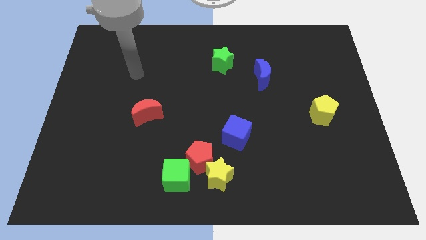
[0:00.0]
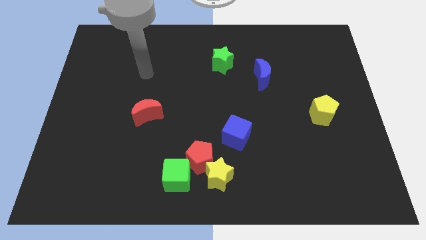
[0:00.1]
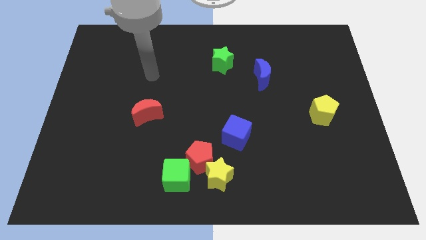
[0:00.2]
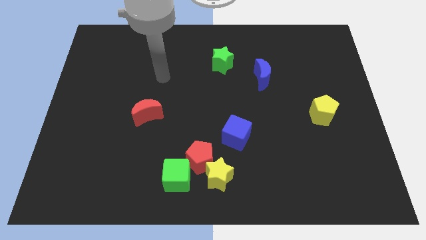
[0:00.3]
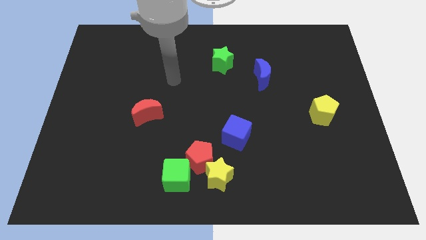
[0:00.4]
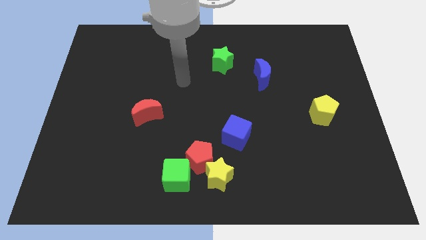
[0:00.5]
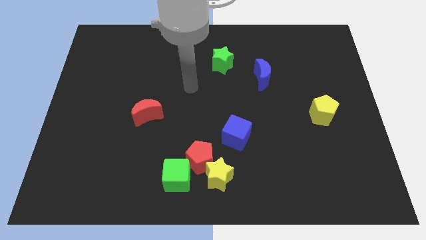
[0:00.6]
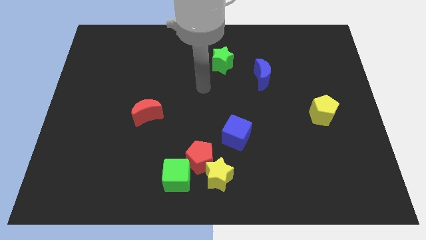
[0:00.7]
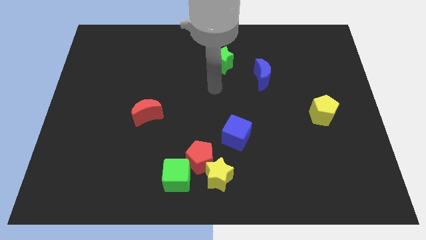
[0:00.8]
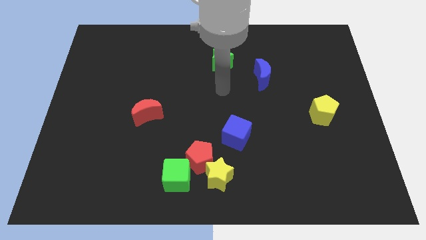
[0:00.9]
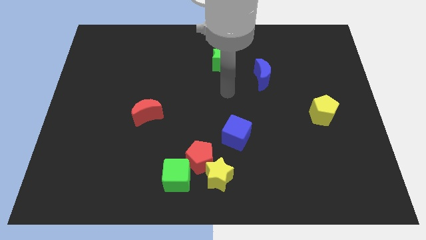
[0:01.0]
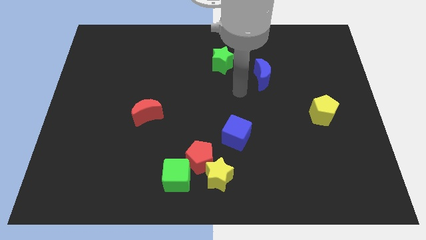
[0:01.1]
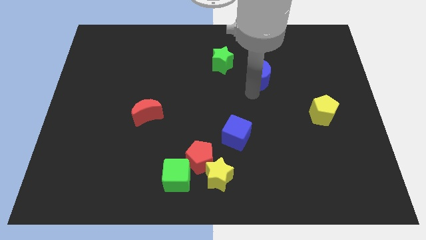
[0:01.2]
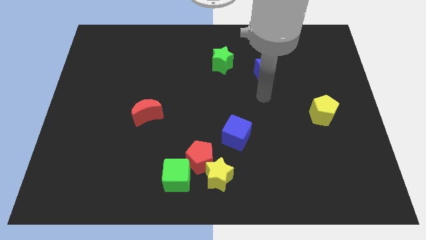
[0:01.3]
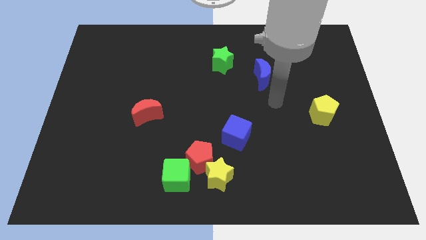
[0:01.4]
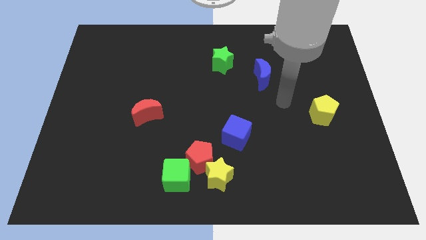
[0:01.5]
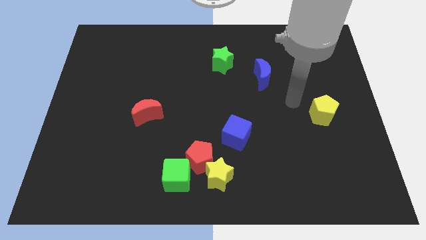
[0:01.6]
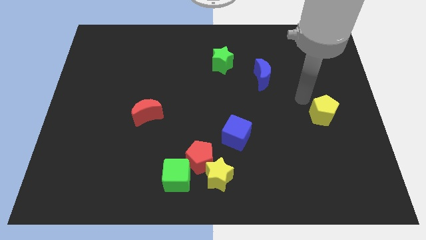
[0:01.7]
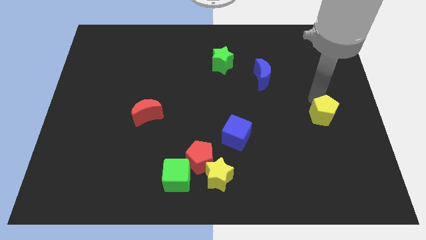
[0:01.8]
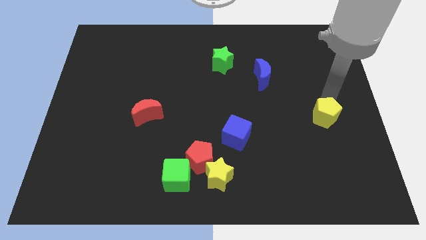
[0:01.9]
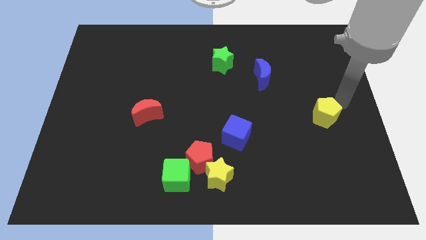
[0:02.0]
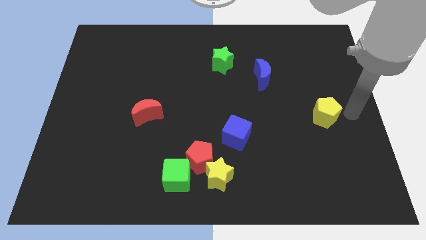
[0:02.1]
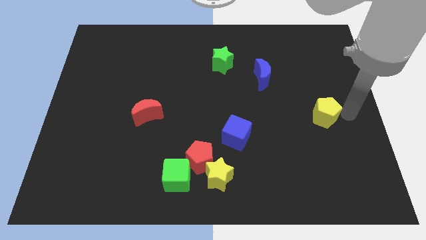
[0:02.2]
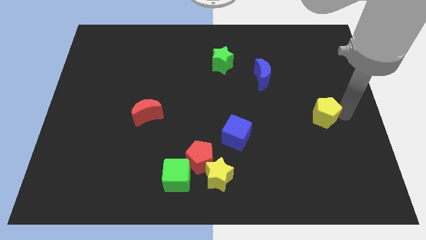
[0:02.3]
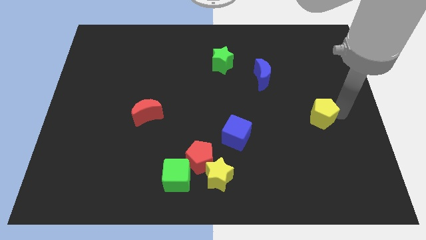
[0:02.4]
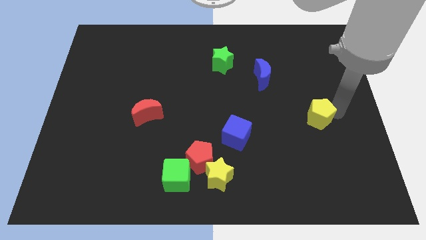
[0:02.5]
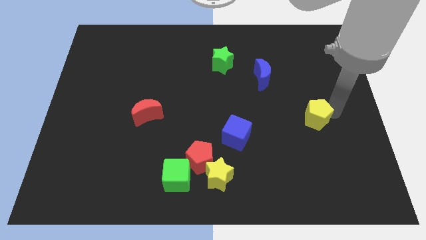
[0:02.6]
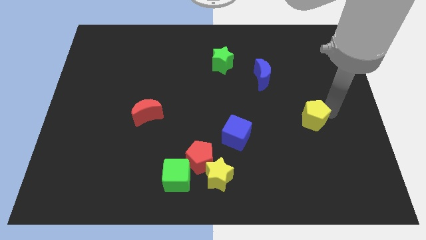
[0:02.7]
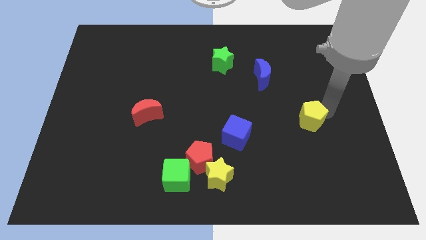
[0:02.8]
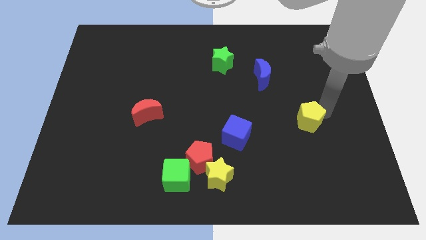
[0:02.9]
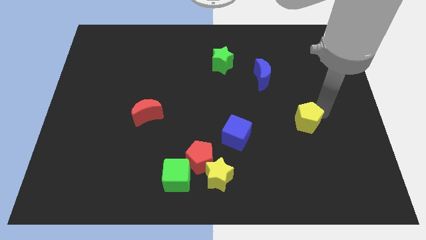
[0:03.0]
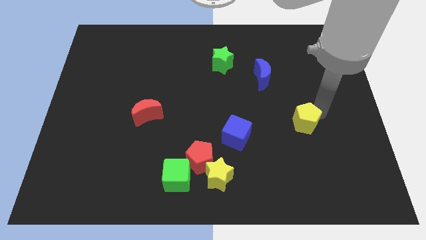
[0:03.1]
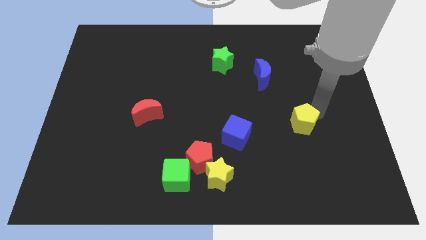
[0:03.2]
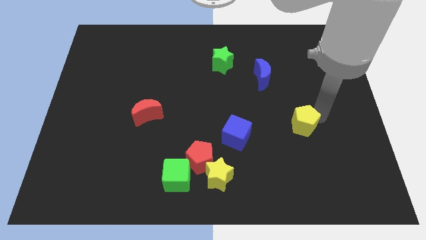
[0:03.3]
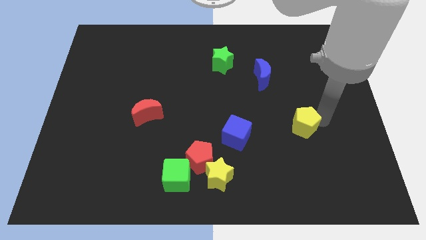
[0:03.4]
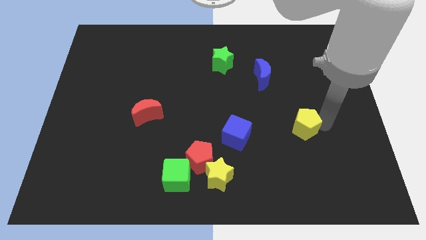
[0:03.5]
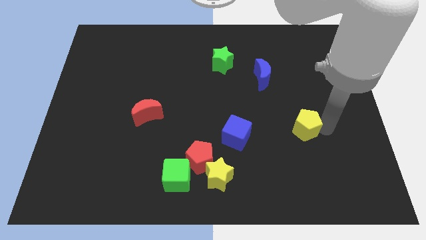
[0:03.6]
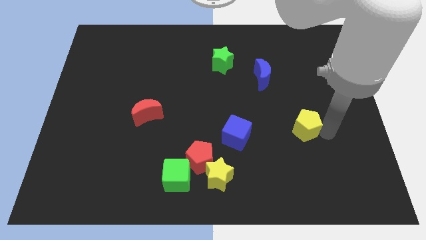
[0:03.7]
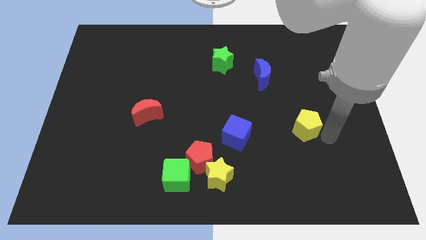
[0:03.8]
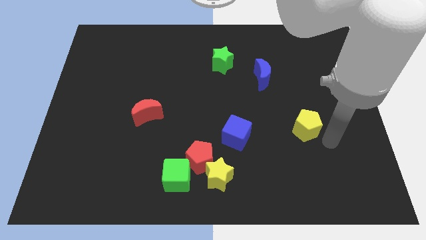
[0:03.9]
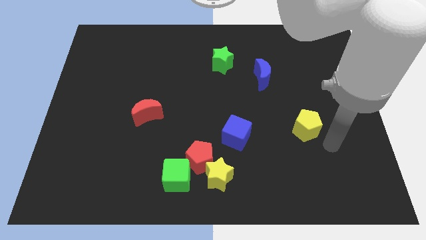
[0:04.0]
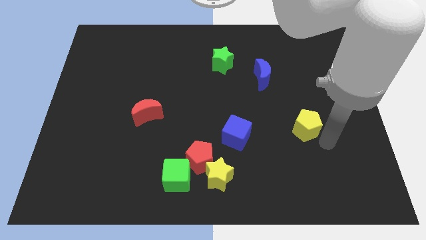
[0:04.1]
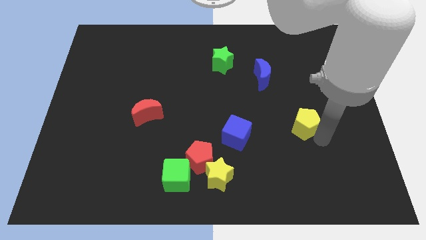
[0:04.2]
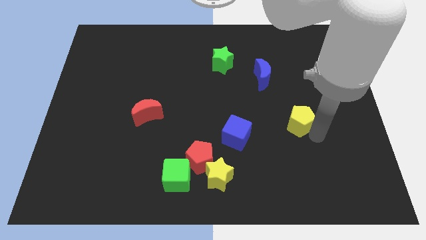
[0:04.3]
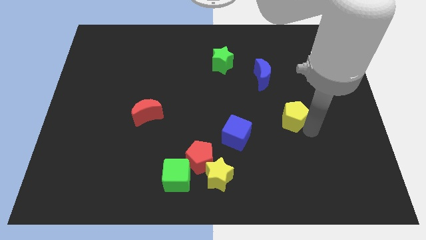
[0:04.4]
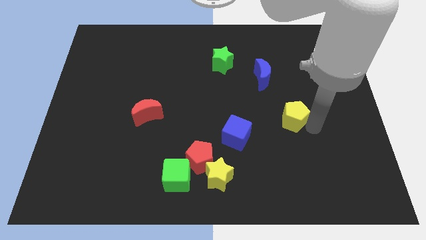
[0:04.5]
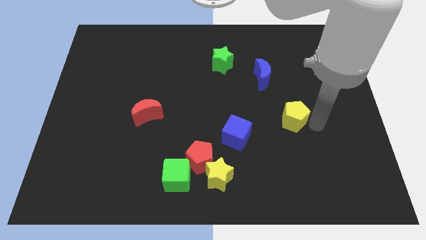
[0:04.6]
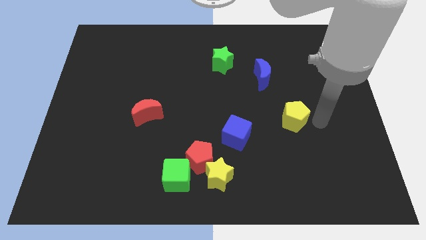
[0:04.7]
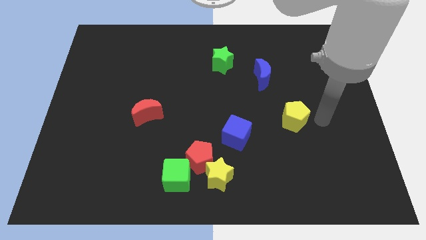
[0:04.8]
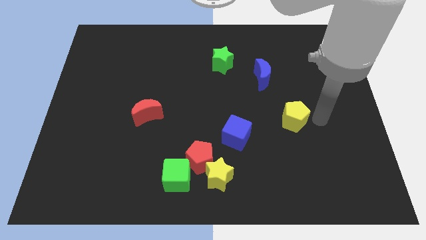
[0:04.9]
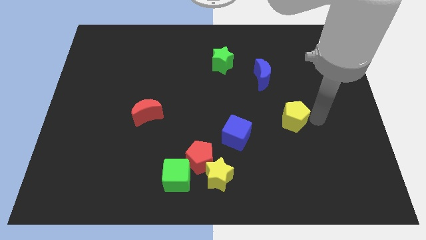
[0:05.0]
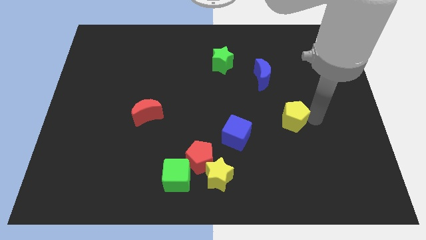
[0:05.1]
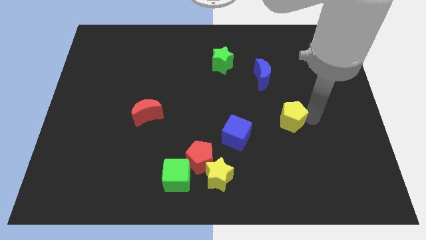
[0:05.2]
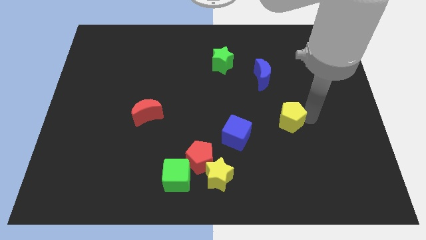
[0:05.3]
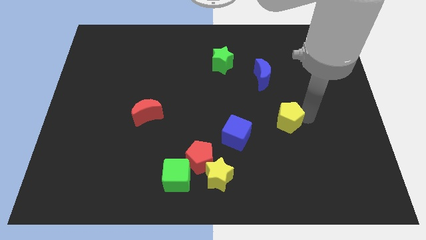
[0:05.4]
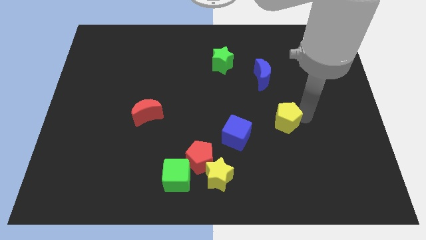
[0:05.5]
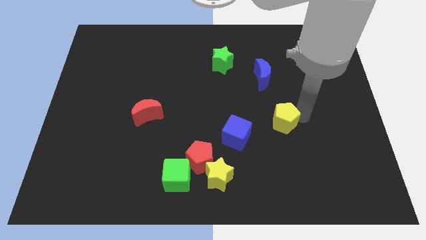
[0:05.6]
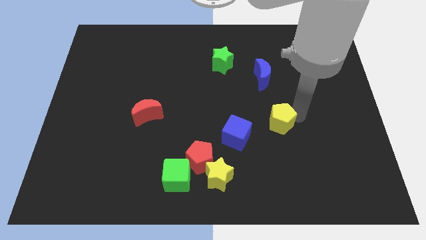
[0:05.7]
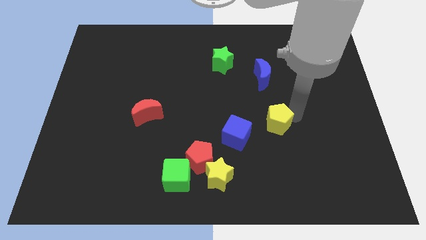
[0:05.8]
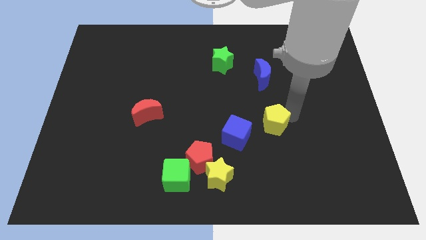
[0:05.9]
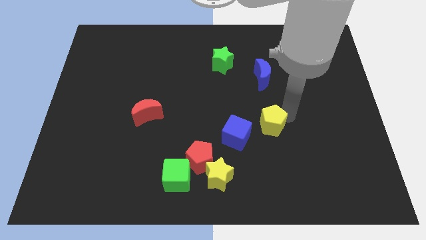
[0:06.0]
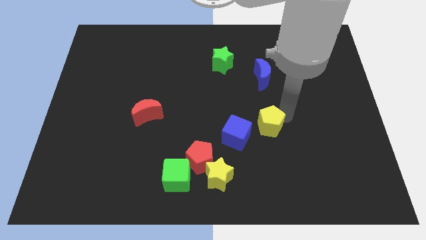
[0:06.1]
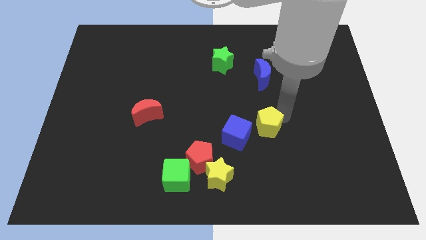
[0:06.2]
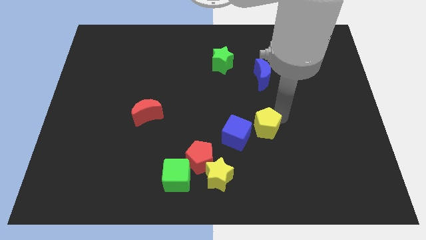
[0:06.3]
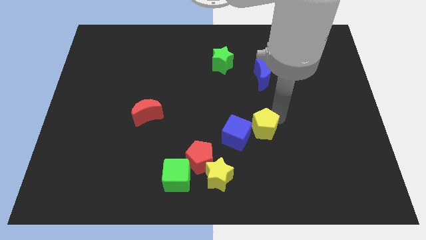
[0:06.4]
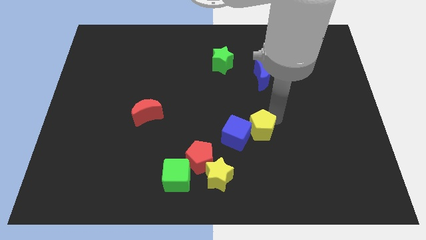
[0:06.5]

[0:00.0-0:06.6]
push the yellow pentagon next to the blue cube
